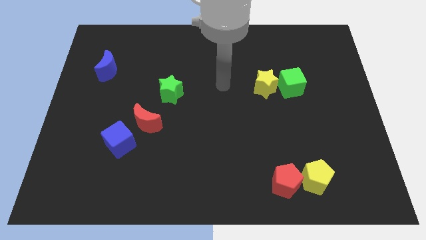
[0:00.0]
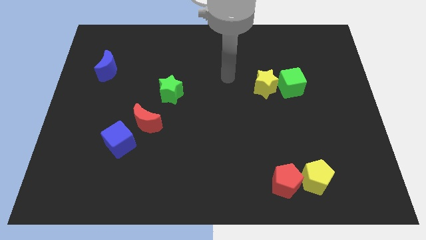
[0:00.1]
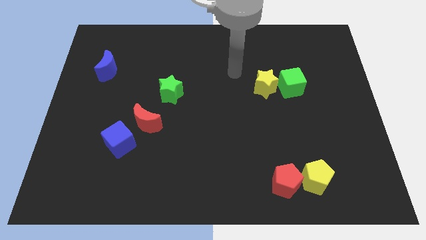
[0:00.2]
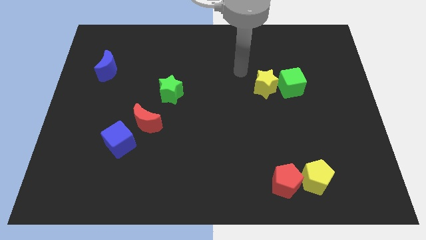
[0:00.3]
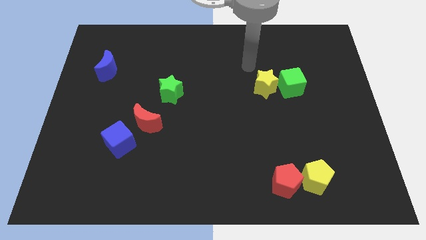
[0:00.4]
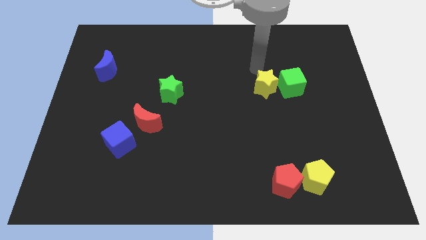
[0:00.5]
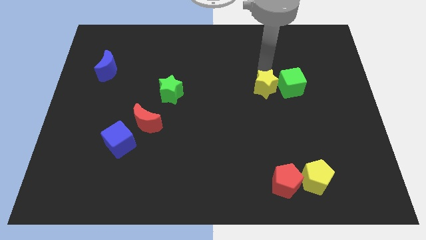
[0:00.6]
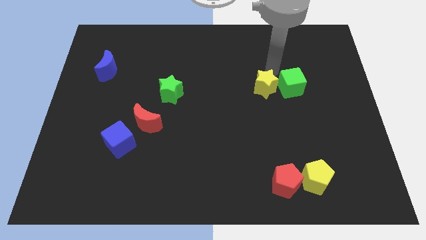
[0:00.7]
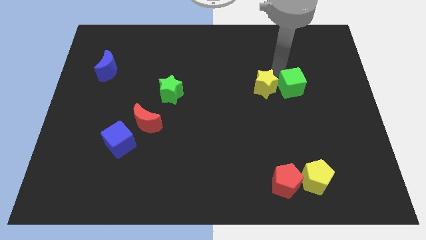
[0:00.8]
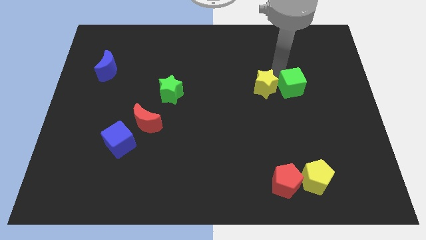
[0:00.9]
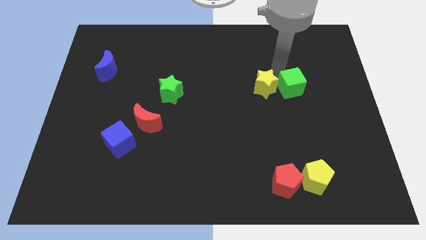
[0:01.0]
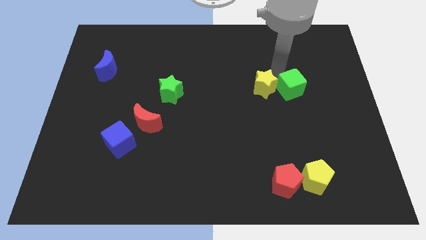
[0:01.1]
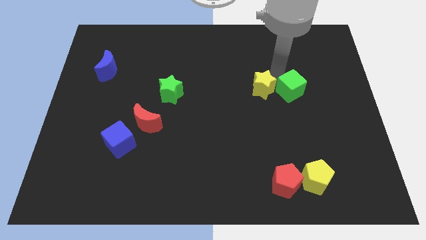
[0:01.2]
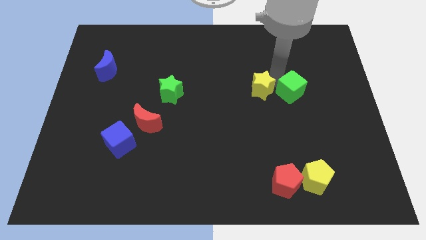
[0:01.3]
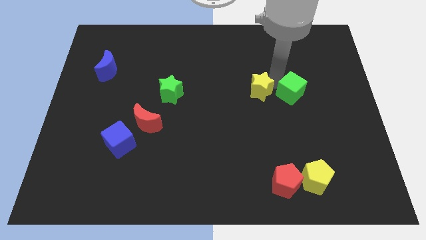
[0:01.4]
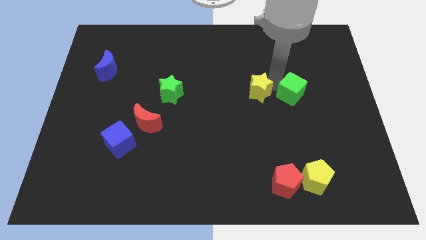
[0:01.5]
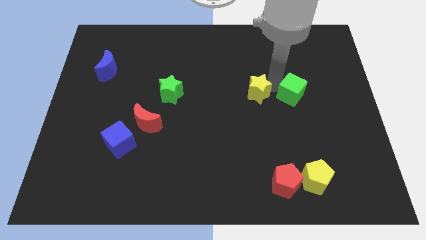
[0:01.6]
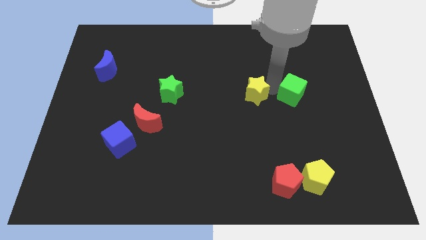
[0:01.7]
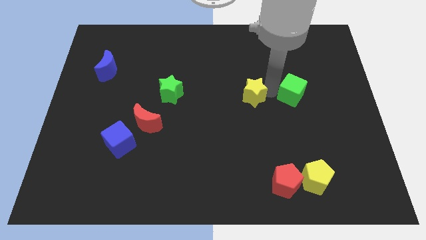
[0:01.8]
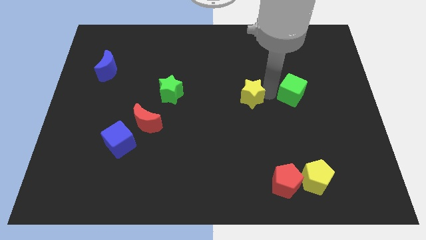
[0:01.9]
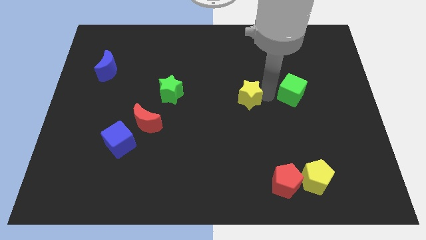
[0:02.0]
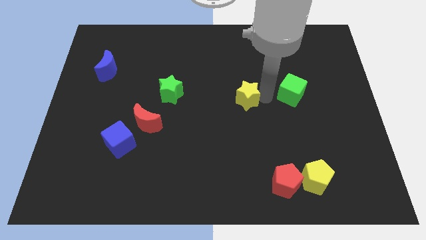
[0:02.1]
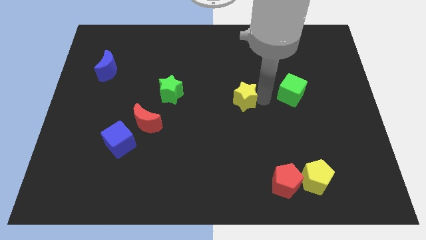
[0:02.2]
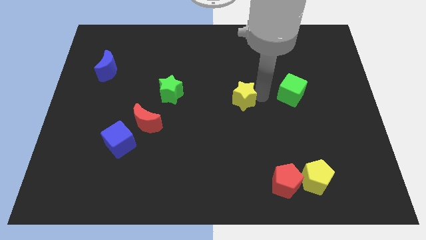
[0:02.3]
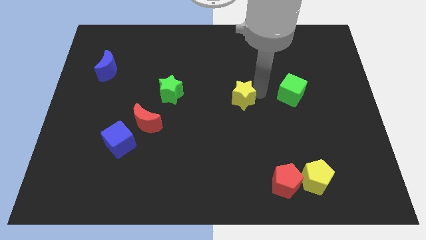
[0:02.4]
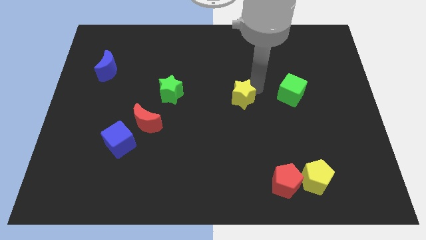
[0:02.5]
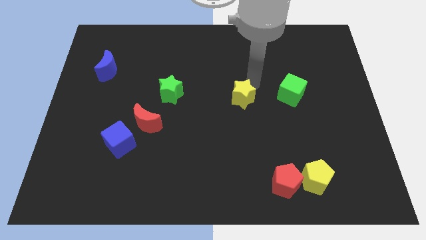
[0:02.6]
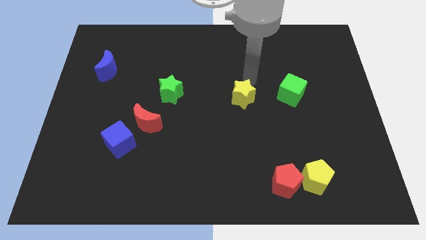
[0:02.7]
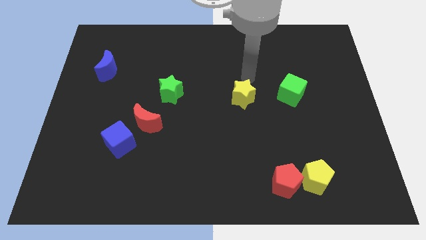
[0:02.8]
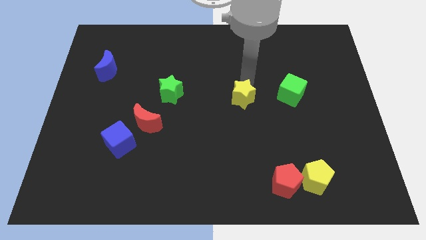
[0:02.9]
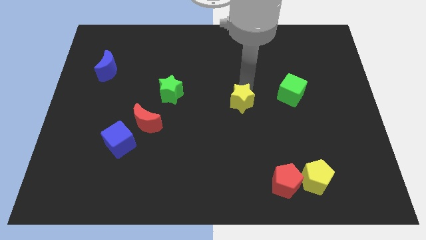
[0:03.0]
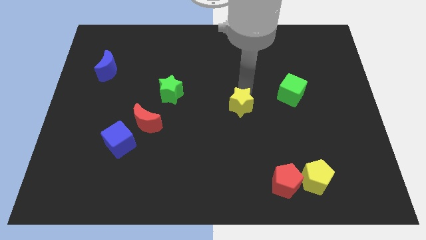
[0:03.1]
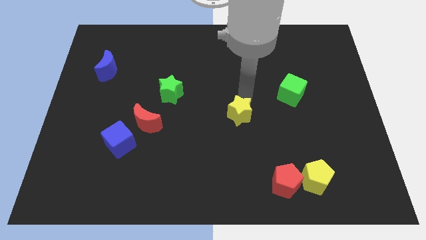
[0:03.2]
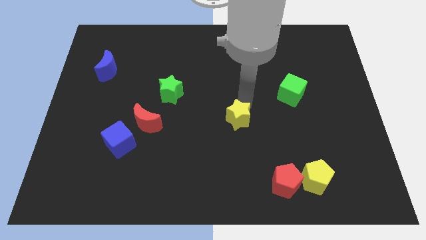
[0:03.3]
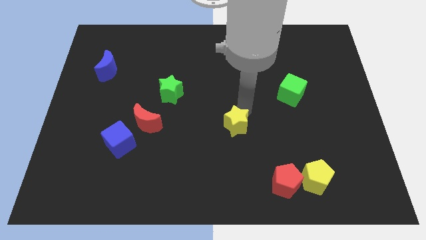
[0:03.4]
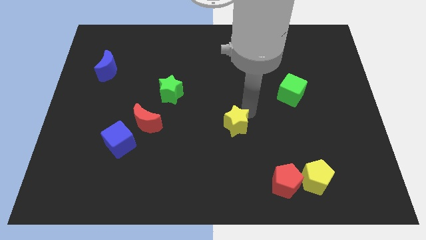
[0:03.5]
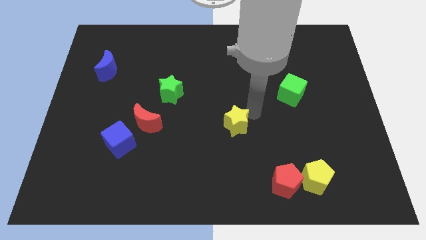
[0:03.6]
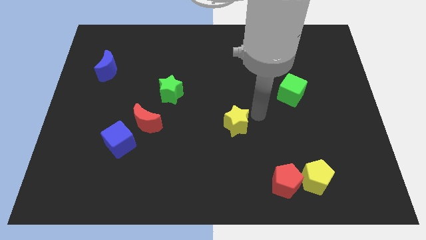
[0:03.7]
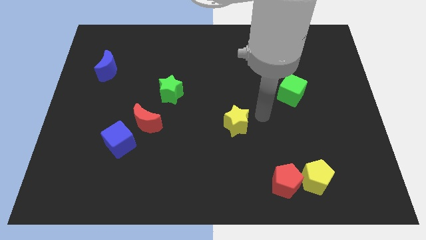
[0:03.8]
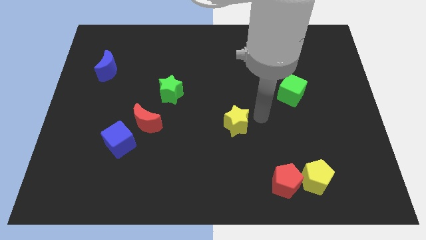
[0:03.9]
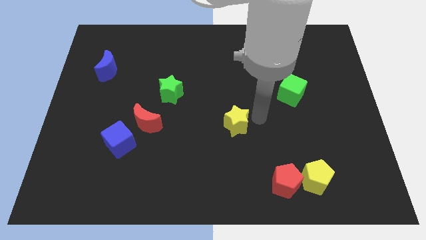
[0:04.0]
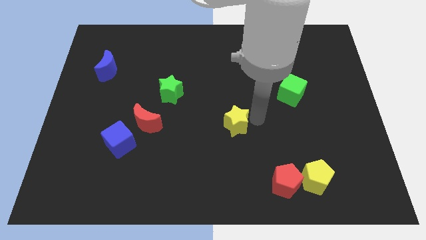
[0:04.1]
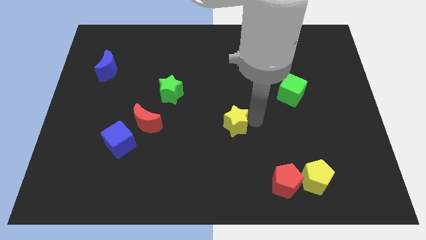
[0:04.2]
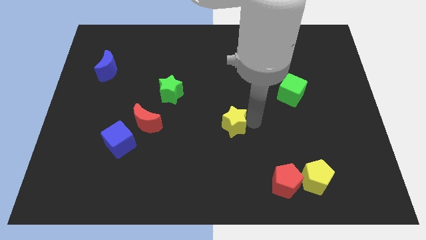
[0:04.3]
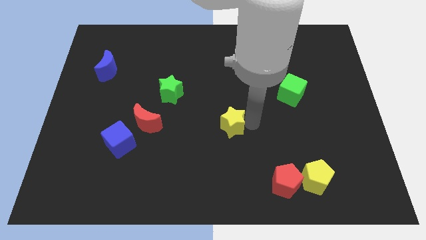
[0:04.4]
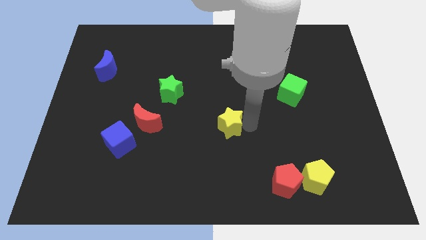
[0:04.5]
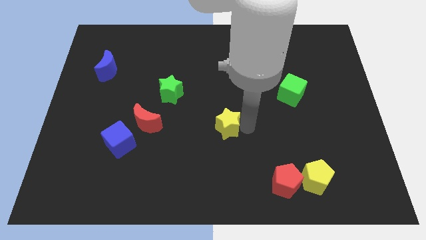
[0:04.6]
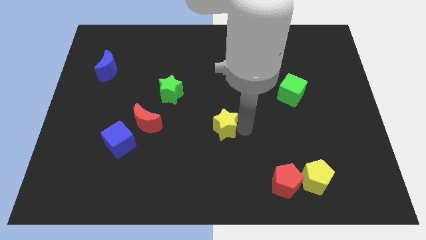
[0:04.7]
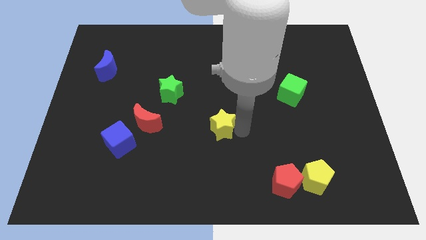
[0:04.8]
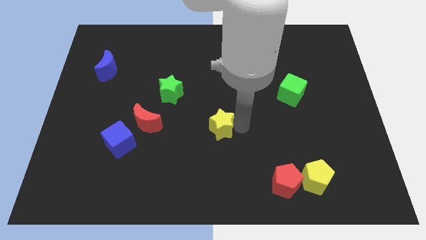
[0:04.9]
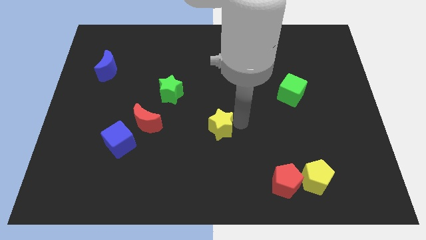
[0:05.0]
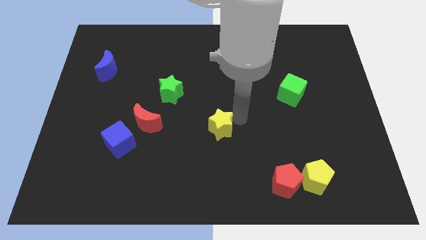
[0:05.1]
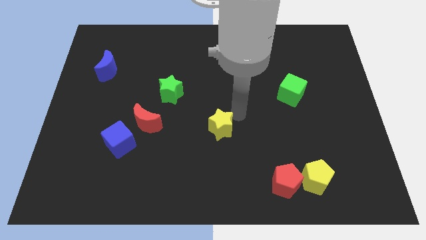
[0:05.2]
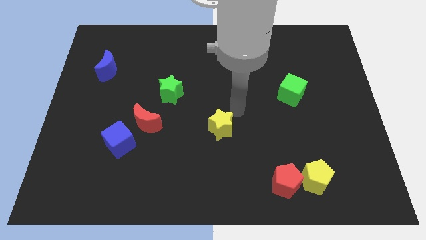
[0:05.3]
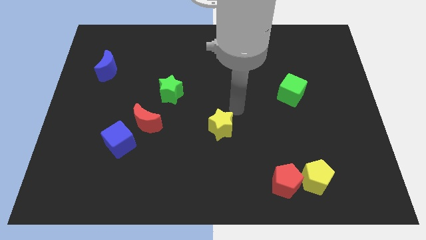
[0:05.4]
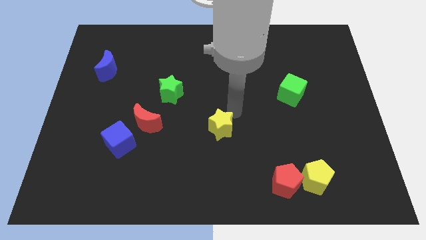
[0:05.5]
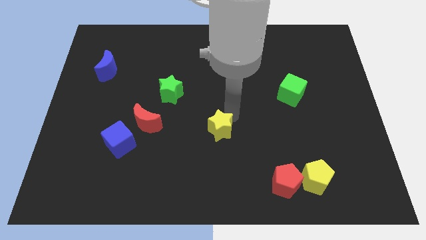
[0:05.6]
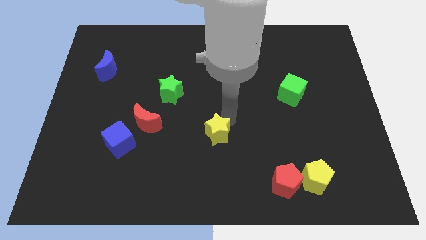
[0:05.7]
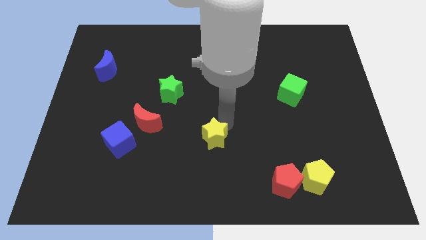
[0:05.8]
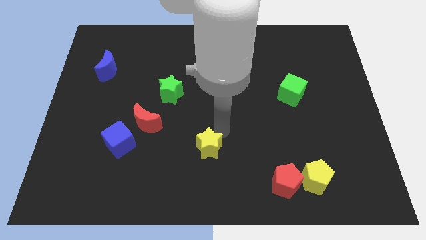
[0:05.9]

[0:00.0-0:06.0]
move the yellow star downwards and then to the left

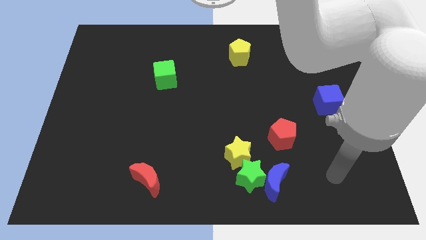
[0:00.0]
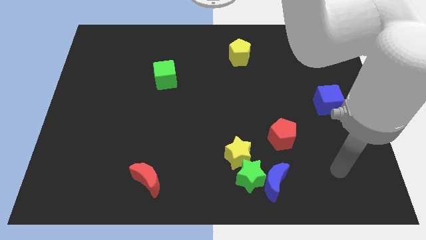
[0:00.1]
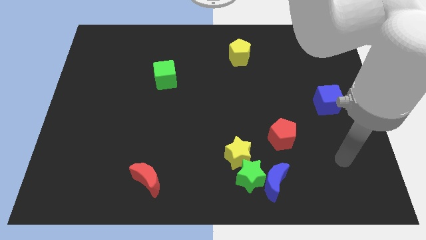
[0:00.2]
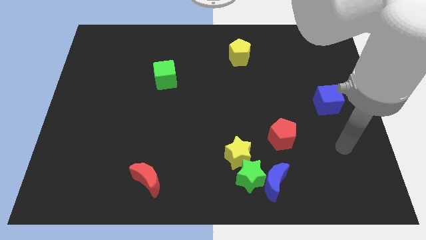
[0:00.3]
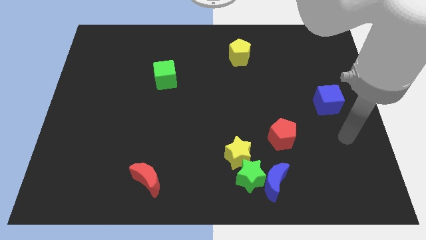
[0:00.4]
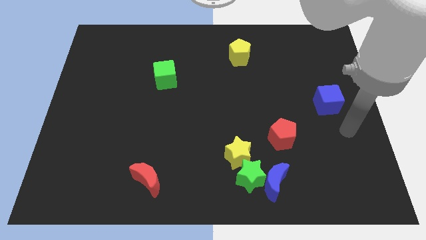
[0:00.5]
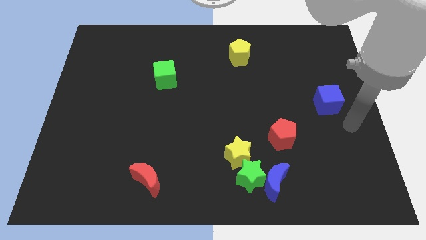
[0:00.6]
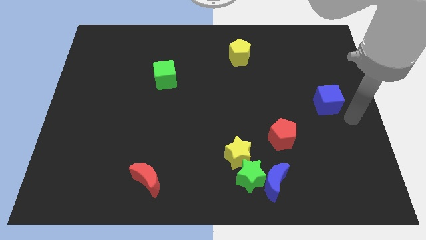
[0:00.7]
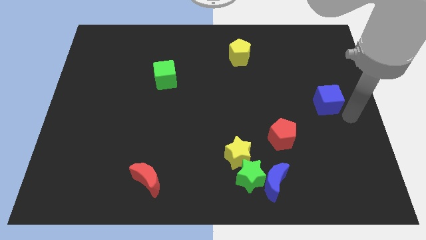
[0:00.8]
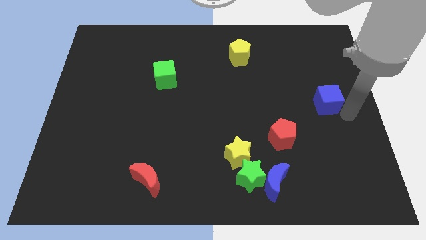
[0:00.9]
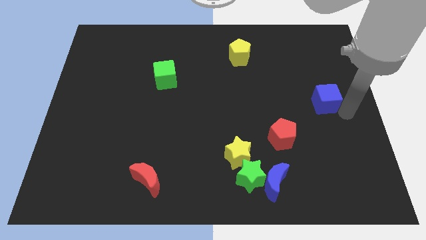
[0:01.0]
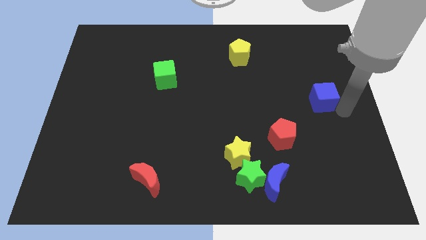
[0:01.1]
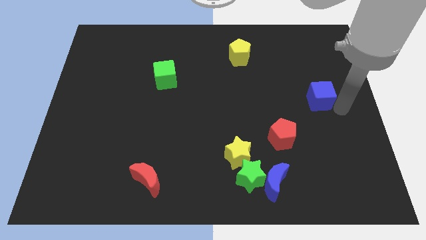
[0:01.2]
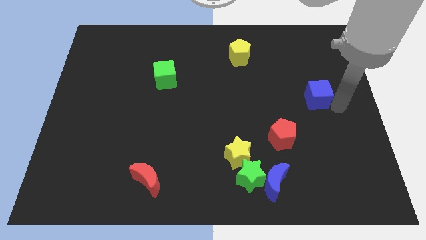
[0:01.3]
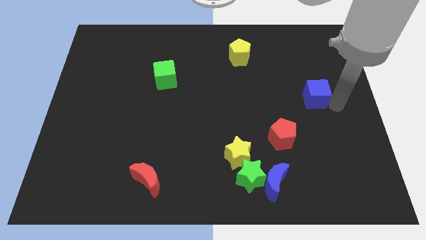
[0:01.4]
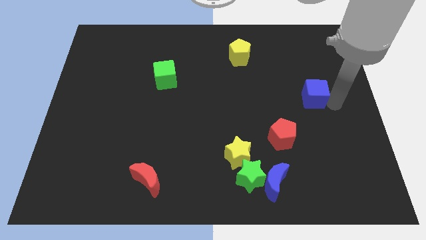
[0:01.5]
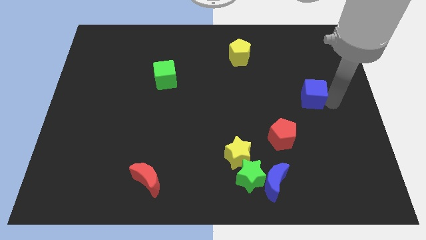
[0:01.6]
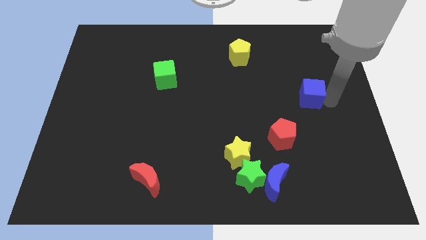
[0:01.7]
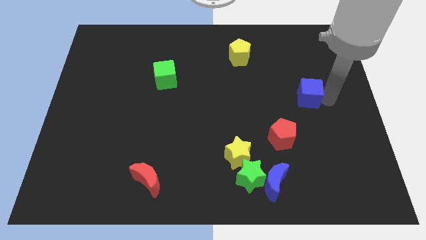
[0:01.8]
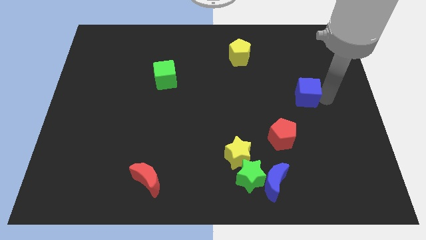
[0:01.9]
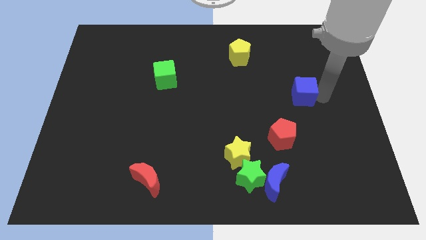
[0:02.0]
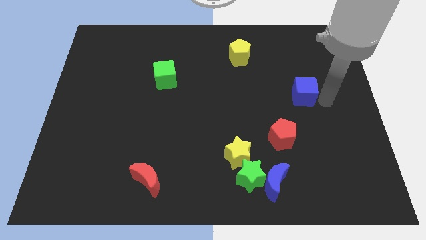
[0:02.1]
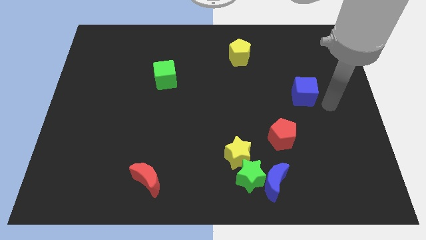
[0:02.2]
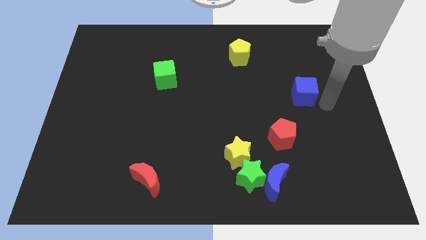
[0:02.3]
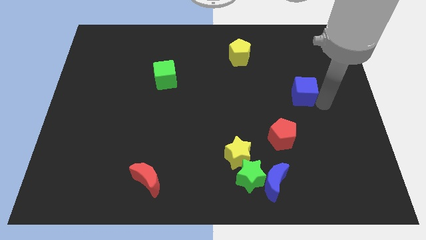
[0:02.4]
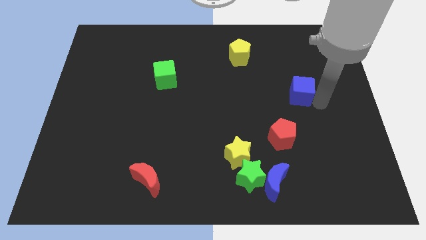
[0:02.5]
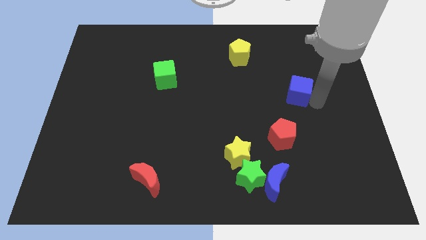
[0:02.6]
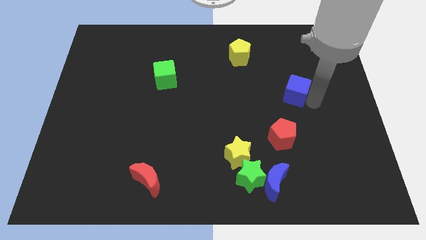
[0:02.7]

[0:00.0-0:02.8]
move the blue cube diagonally upwards and left slightly
